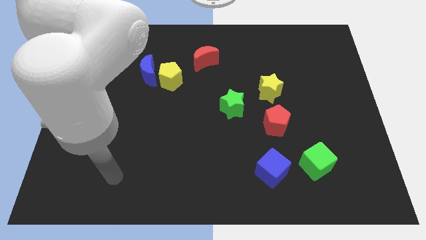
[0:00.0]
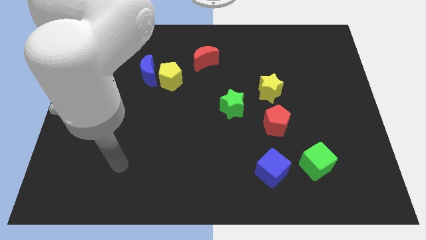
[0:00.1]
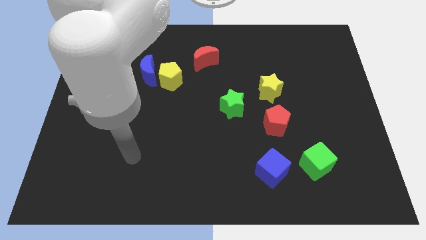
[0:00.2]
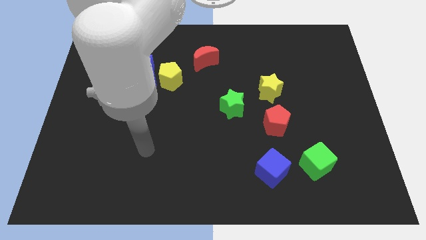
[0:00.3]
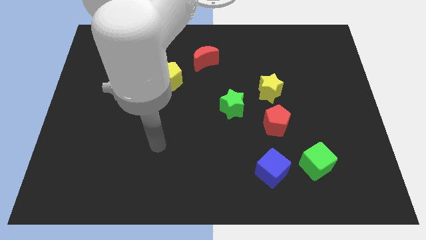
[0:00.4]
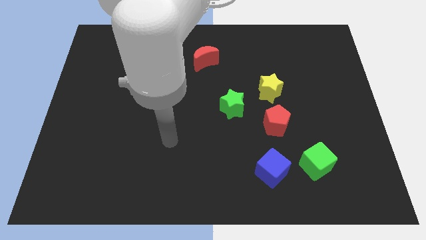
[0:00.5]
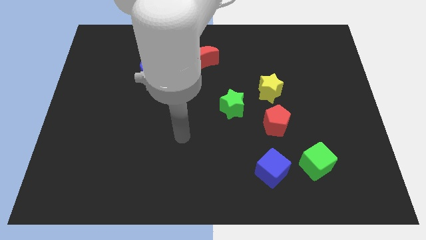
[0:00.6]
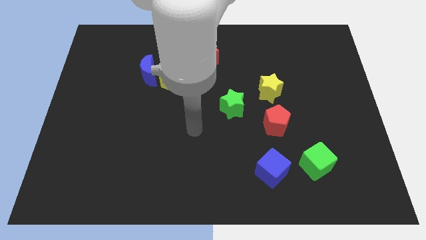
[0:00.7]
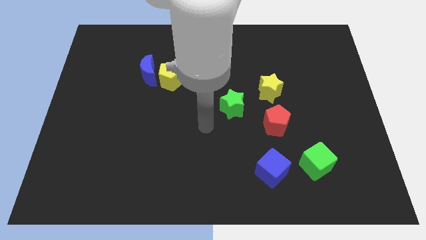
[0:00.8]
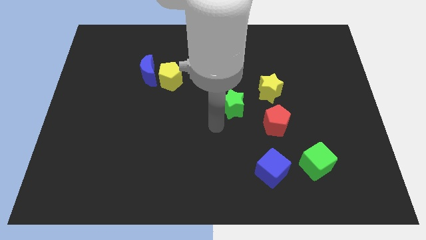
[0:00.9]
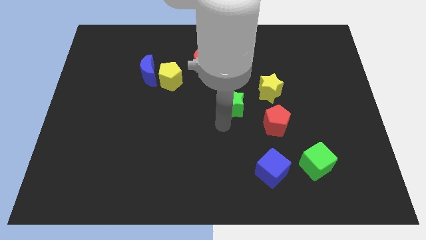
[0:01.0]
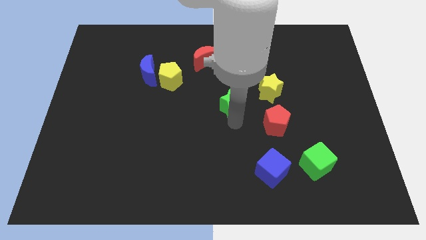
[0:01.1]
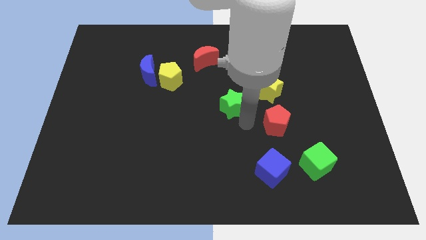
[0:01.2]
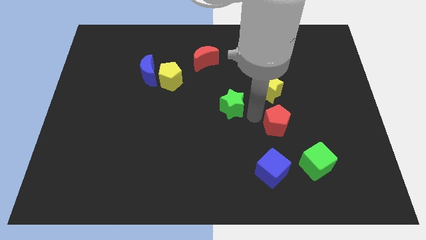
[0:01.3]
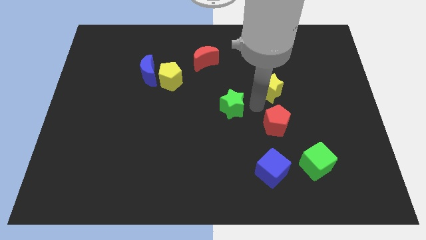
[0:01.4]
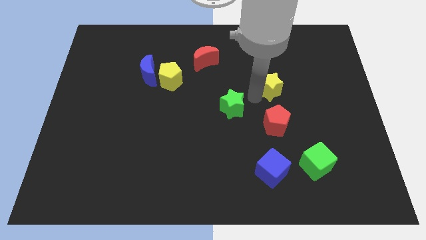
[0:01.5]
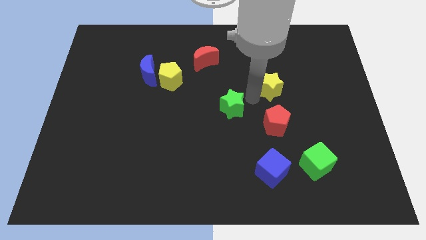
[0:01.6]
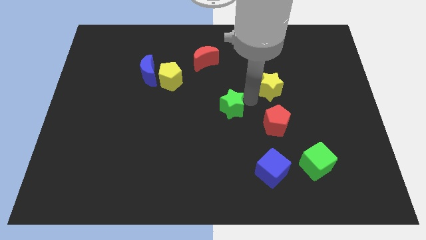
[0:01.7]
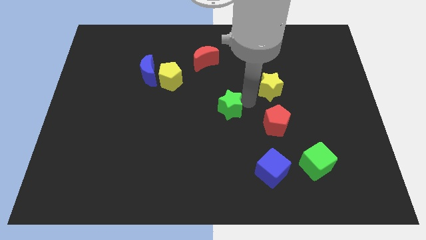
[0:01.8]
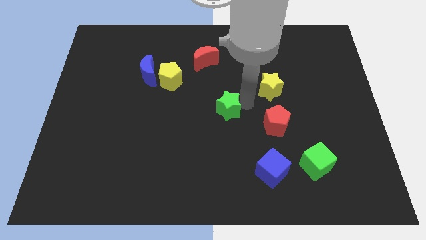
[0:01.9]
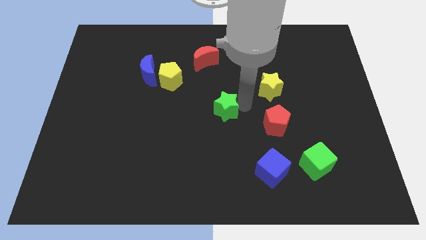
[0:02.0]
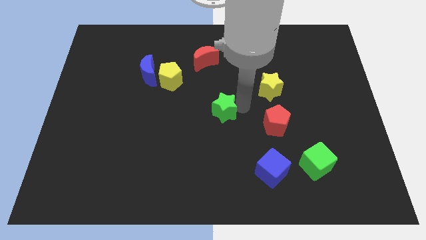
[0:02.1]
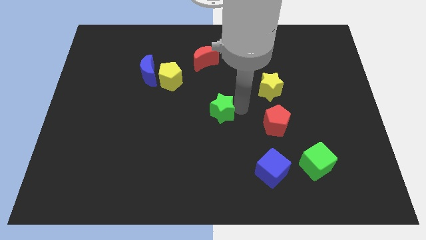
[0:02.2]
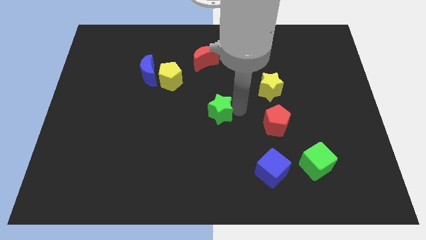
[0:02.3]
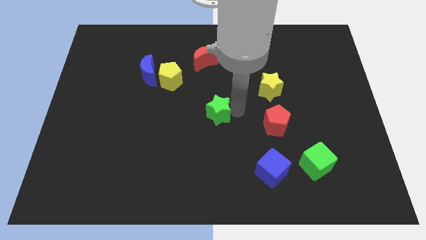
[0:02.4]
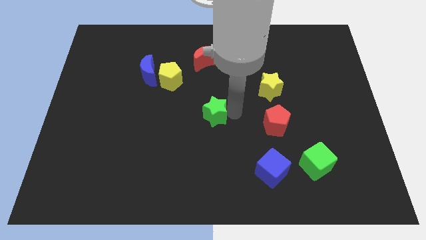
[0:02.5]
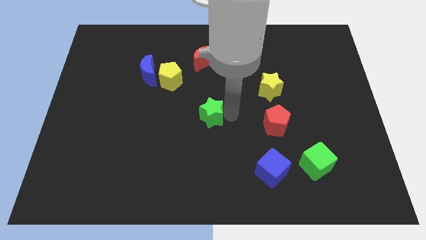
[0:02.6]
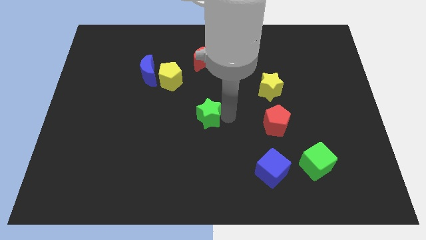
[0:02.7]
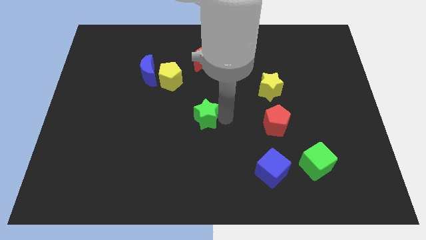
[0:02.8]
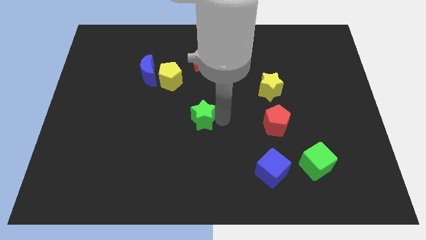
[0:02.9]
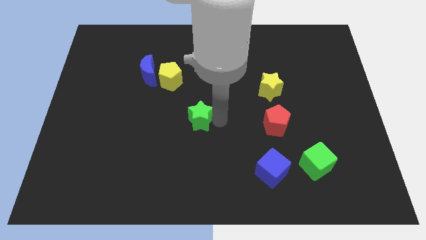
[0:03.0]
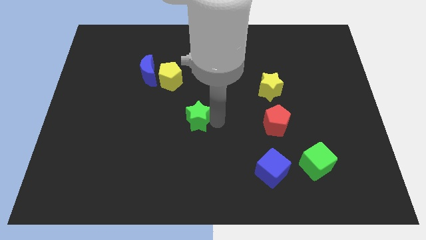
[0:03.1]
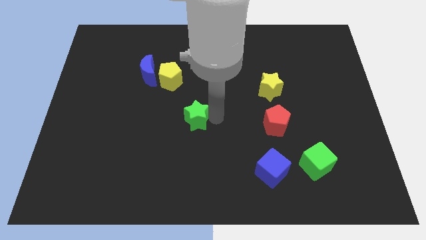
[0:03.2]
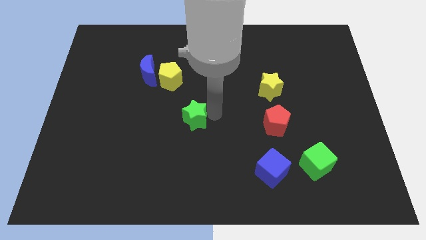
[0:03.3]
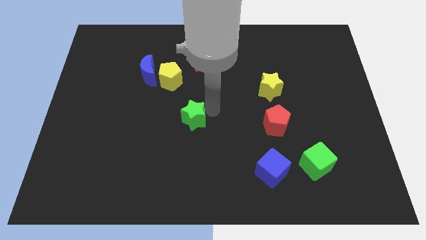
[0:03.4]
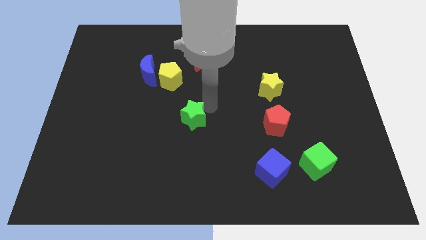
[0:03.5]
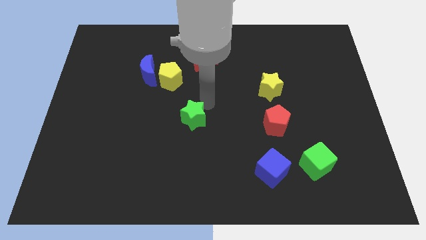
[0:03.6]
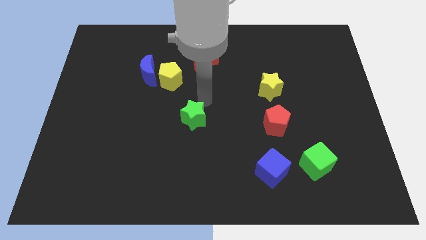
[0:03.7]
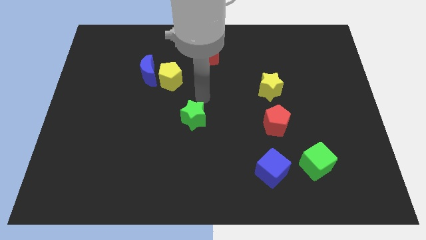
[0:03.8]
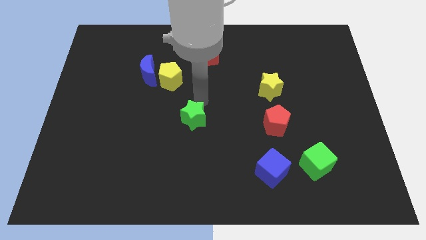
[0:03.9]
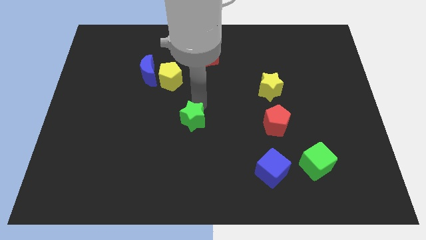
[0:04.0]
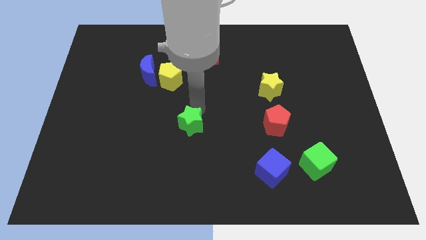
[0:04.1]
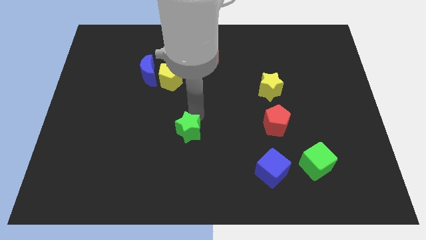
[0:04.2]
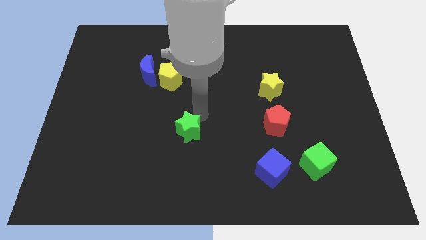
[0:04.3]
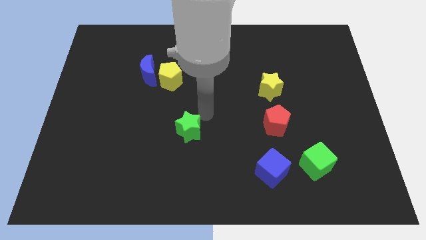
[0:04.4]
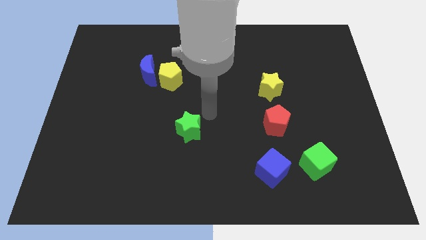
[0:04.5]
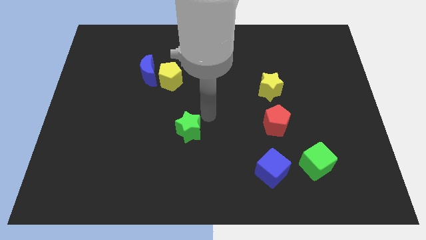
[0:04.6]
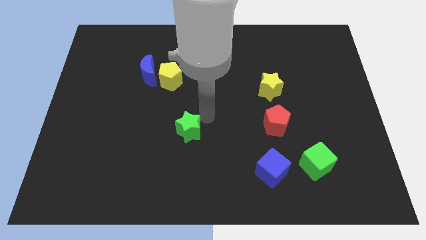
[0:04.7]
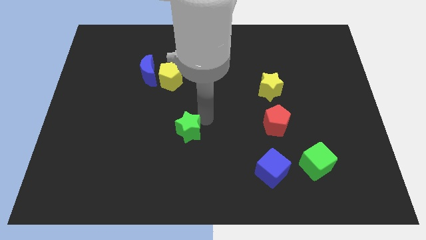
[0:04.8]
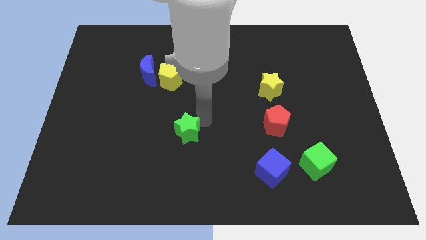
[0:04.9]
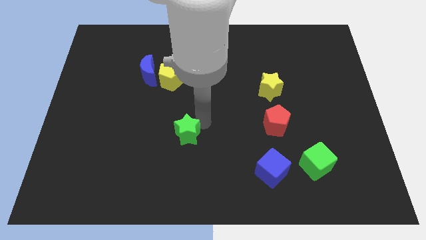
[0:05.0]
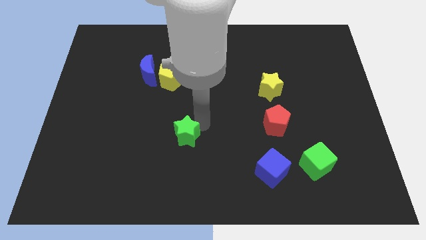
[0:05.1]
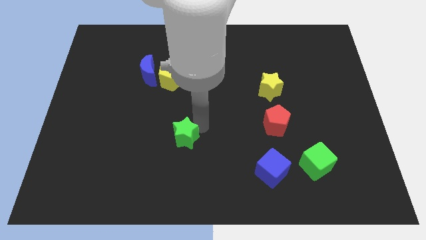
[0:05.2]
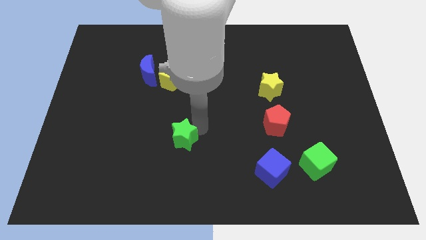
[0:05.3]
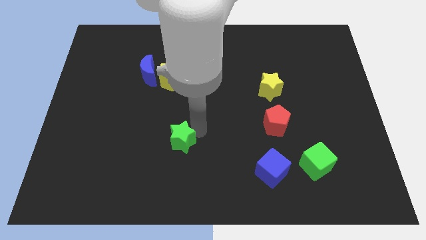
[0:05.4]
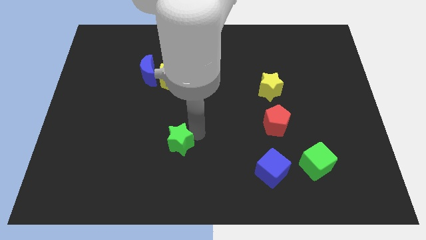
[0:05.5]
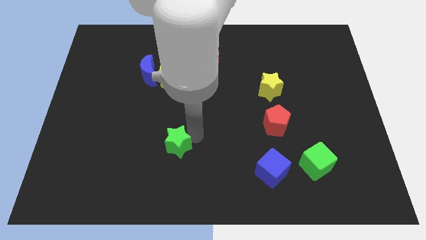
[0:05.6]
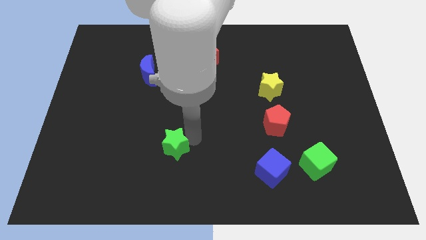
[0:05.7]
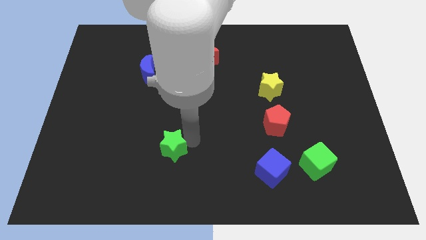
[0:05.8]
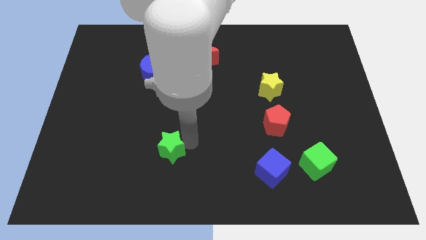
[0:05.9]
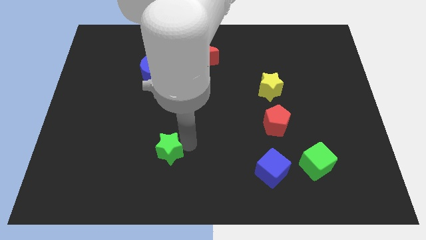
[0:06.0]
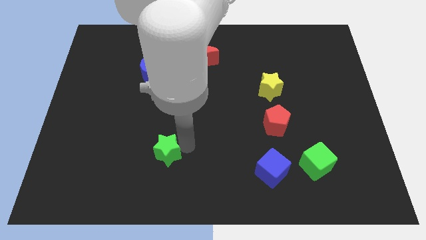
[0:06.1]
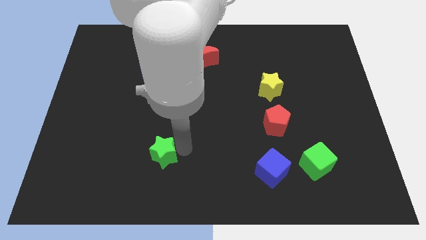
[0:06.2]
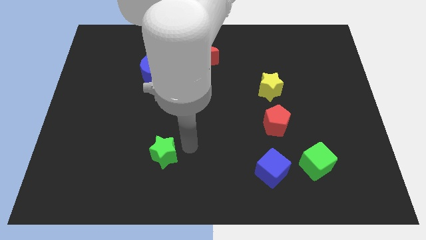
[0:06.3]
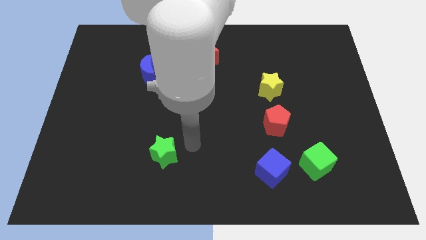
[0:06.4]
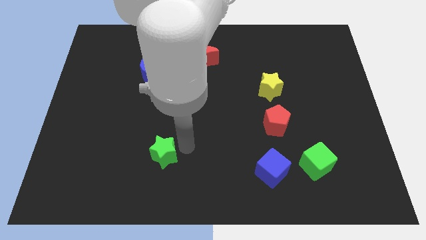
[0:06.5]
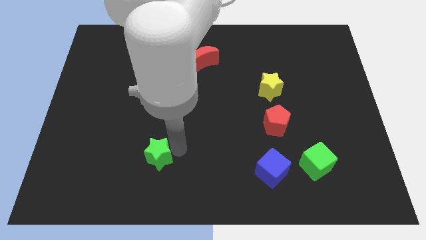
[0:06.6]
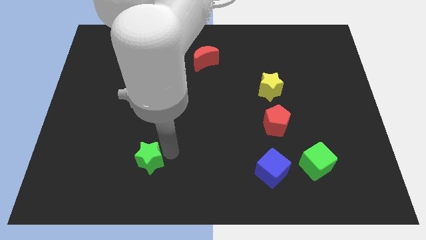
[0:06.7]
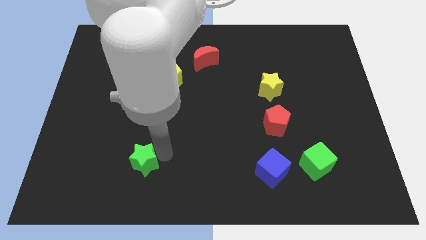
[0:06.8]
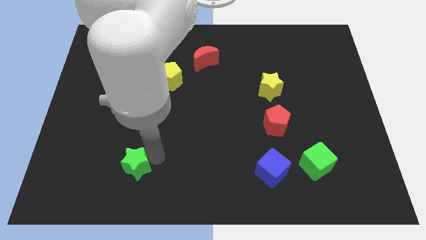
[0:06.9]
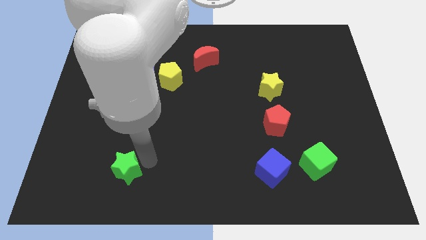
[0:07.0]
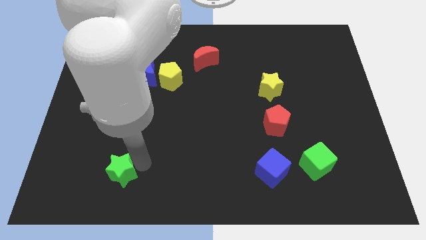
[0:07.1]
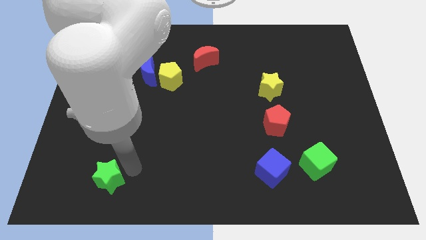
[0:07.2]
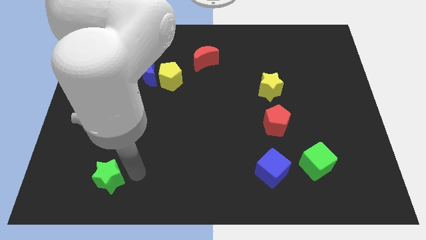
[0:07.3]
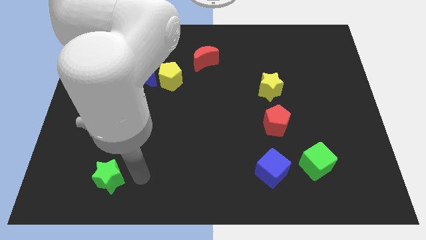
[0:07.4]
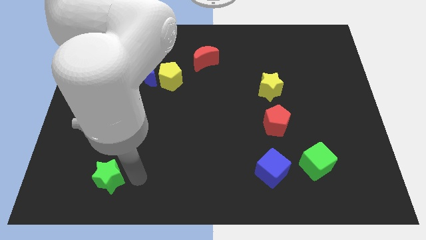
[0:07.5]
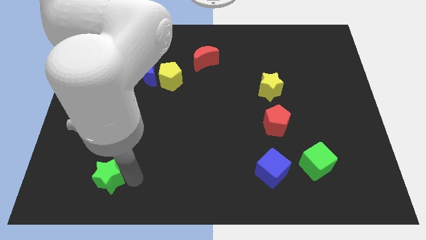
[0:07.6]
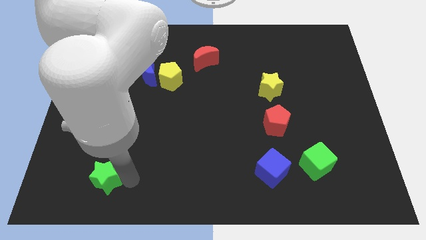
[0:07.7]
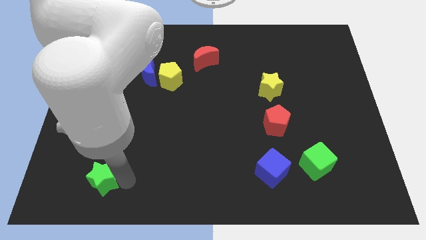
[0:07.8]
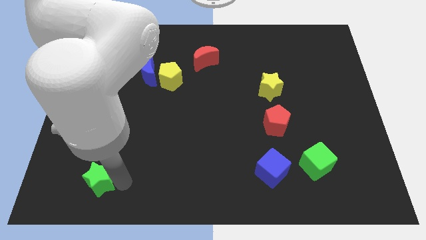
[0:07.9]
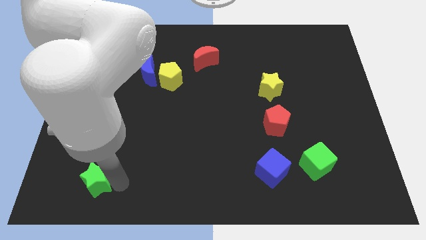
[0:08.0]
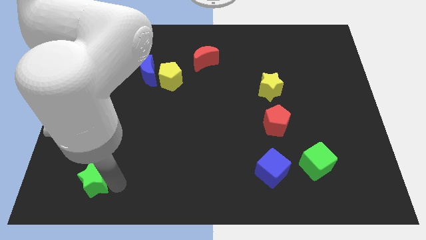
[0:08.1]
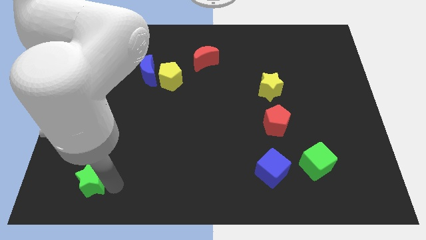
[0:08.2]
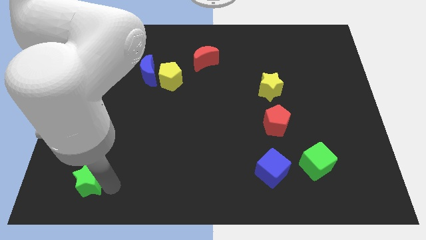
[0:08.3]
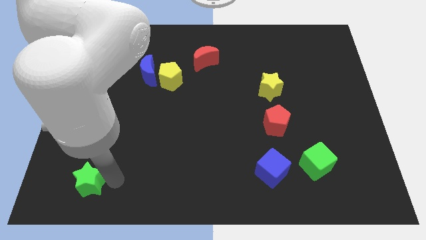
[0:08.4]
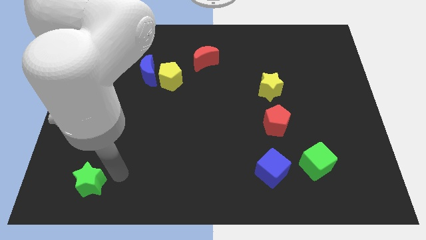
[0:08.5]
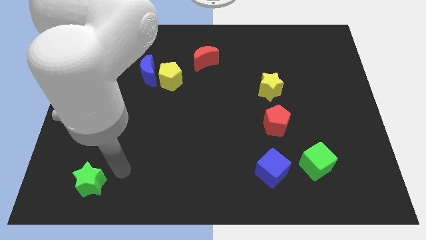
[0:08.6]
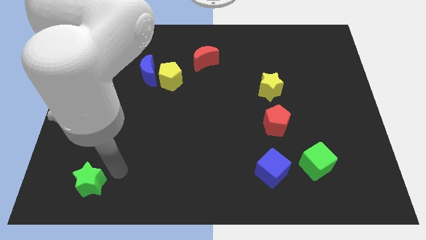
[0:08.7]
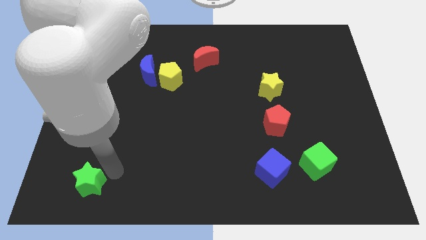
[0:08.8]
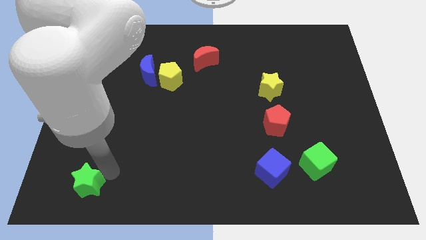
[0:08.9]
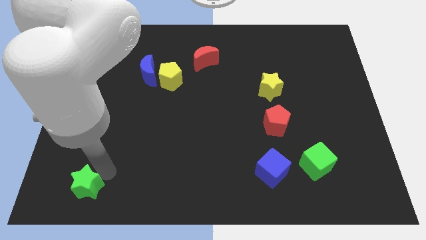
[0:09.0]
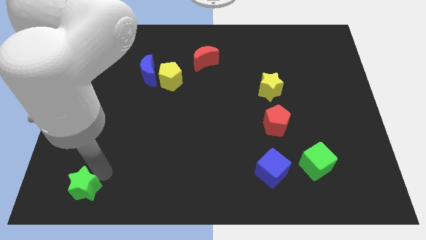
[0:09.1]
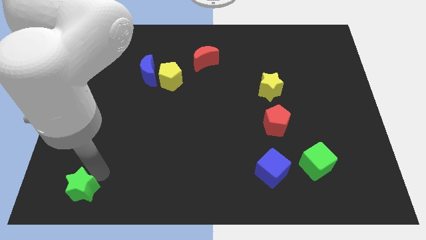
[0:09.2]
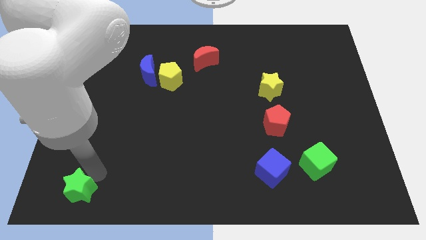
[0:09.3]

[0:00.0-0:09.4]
slide the green star to the bottom left corner
